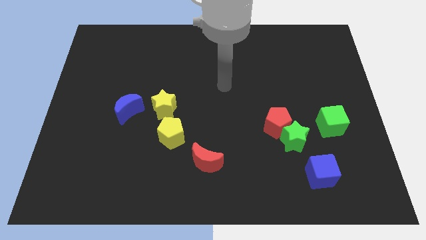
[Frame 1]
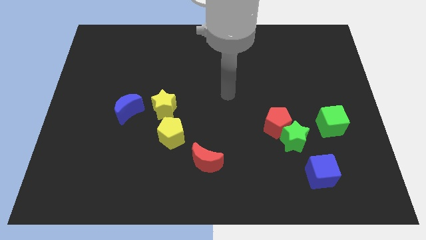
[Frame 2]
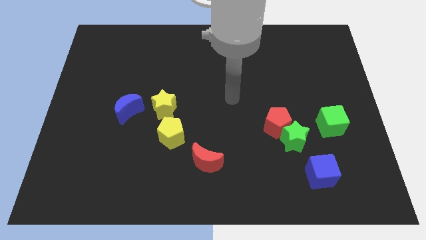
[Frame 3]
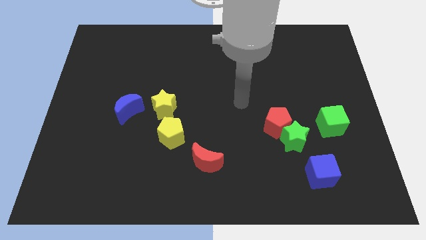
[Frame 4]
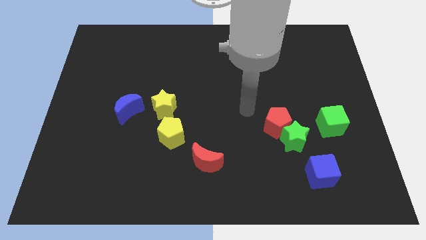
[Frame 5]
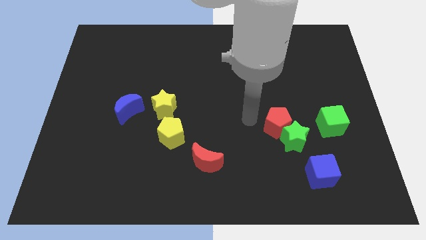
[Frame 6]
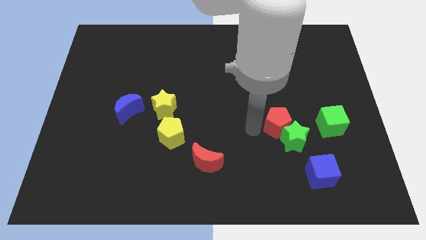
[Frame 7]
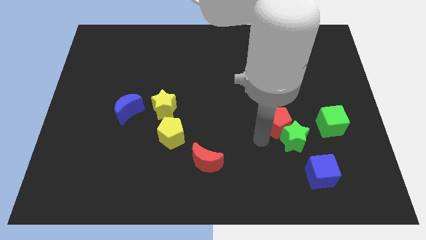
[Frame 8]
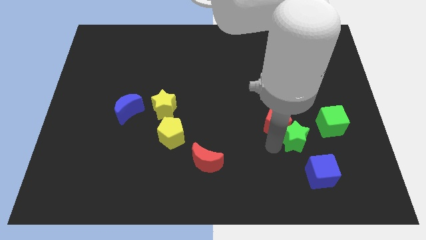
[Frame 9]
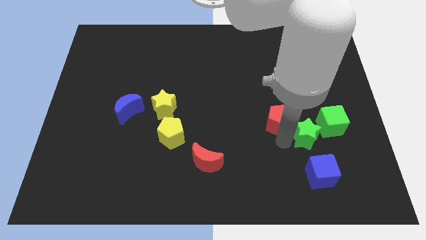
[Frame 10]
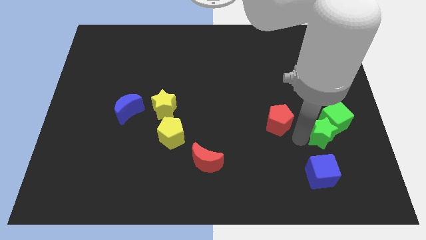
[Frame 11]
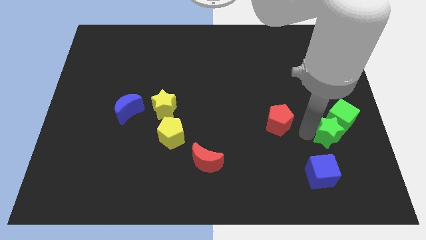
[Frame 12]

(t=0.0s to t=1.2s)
pull the red pentagon apart from the green star

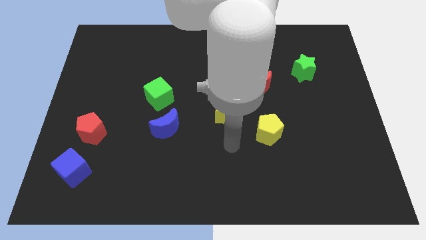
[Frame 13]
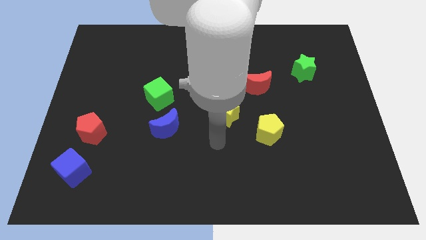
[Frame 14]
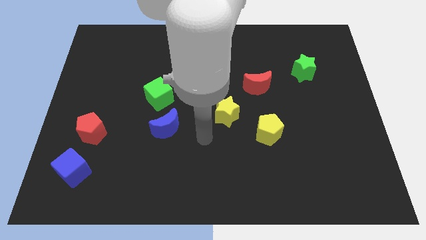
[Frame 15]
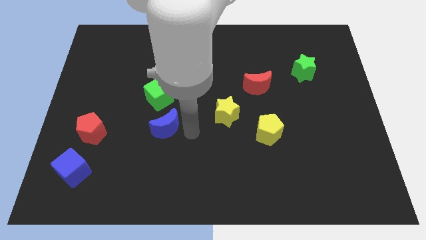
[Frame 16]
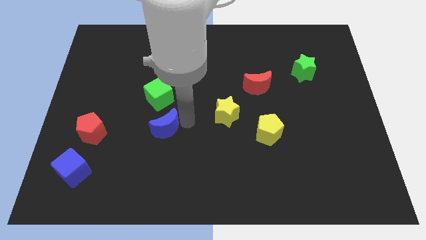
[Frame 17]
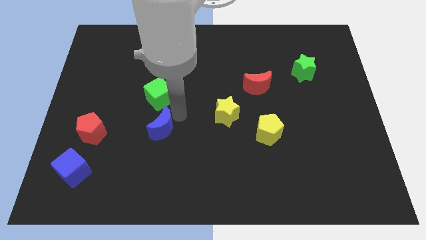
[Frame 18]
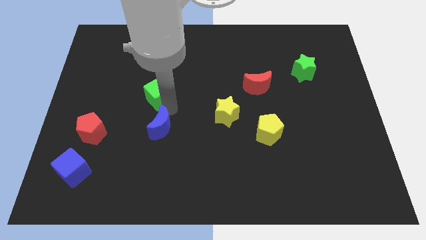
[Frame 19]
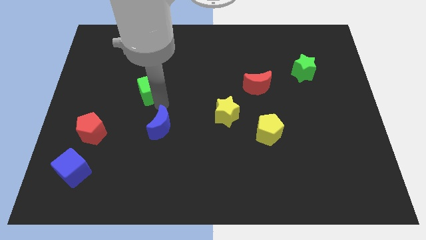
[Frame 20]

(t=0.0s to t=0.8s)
separate the blue moon from the green cube

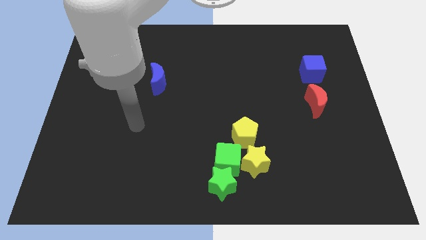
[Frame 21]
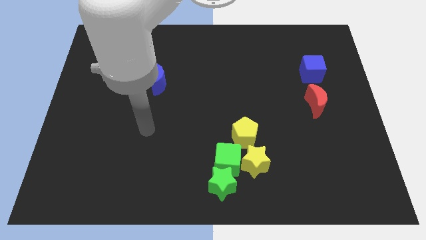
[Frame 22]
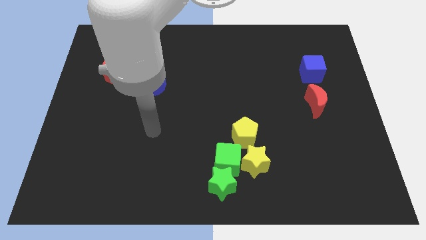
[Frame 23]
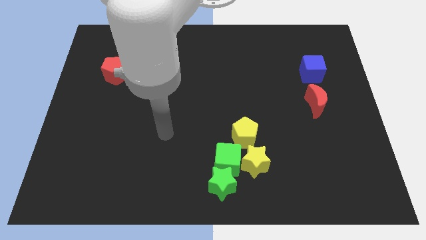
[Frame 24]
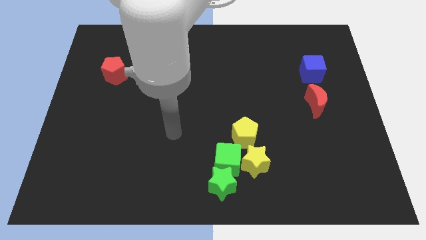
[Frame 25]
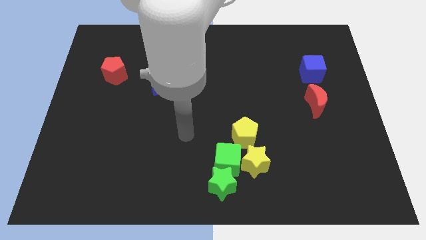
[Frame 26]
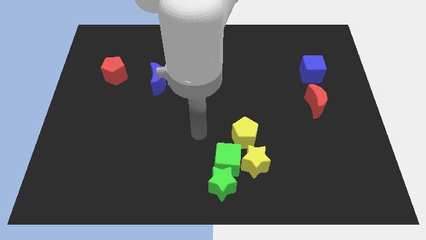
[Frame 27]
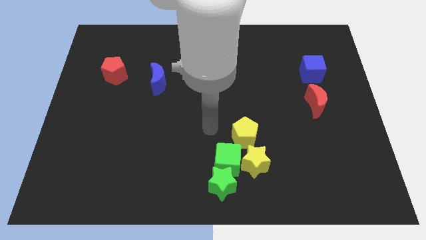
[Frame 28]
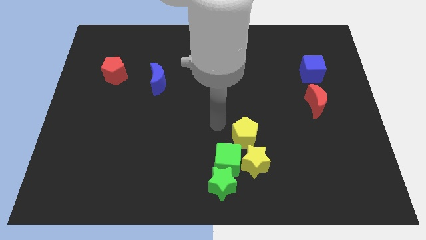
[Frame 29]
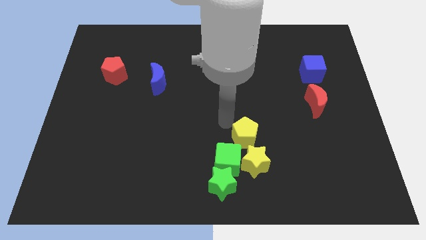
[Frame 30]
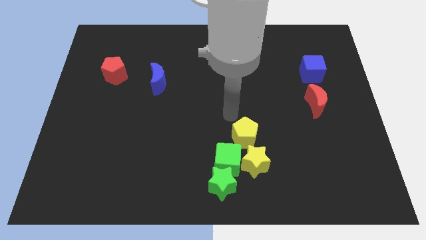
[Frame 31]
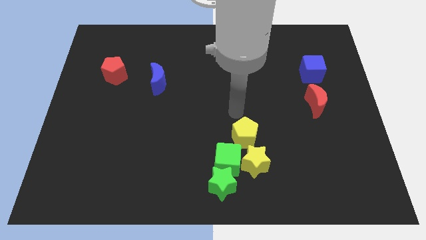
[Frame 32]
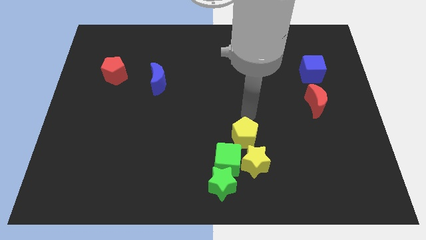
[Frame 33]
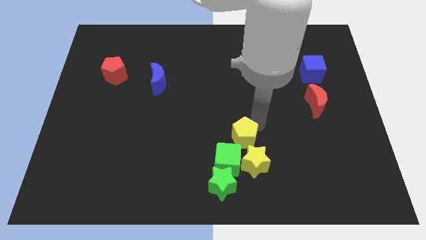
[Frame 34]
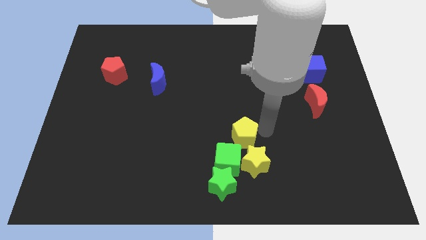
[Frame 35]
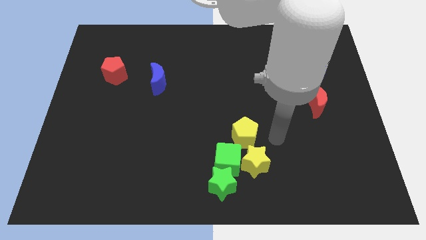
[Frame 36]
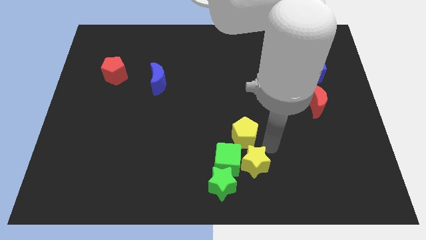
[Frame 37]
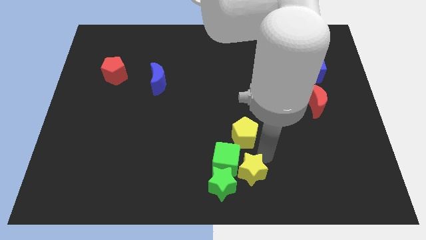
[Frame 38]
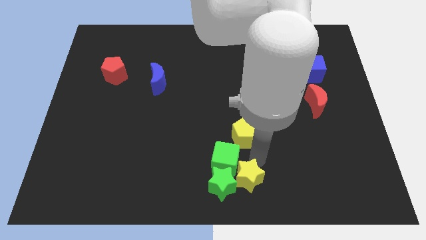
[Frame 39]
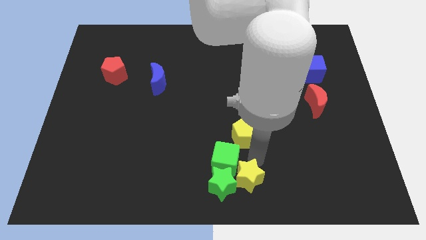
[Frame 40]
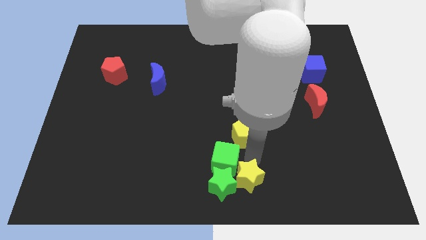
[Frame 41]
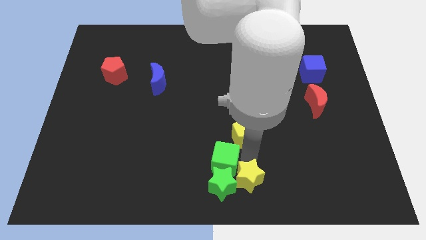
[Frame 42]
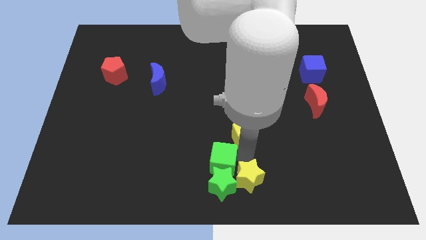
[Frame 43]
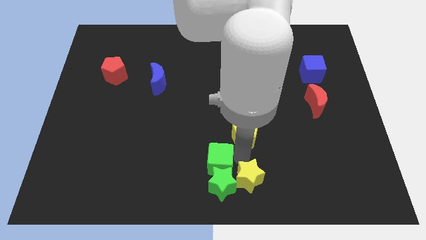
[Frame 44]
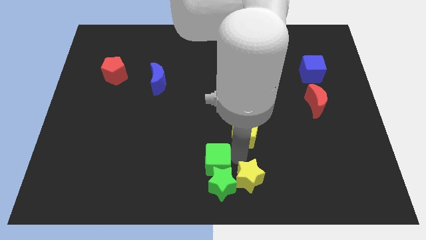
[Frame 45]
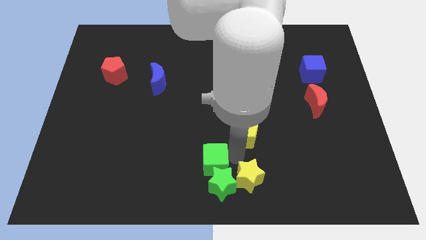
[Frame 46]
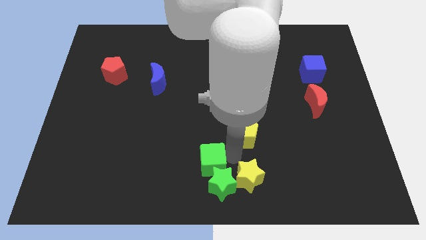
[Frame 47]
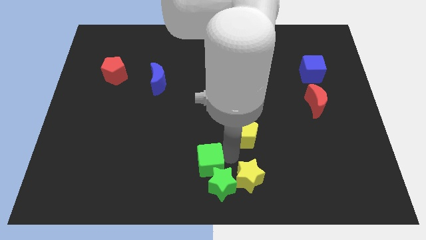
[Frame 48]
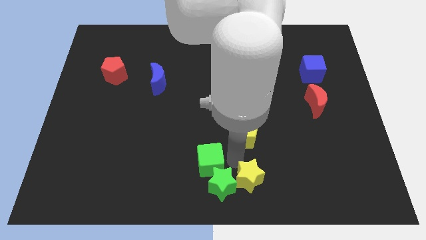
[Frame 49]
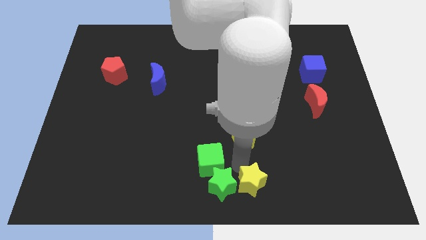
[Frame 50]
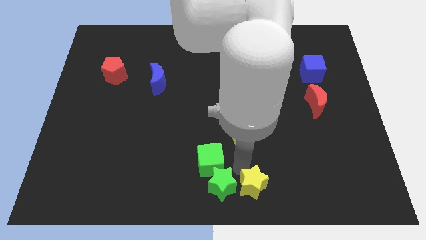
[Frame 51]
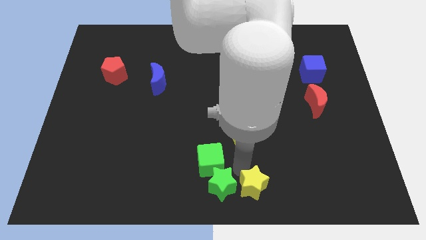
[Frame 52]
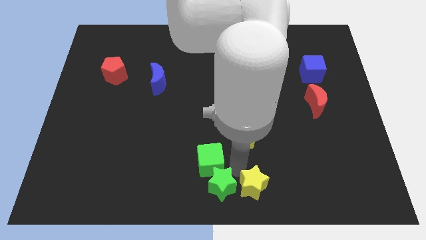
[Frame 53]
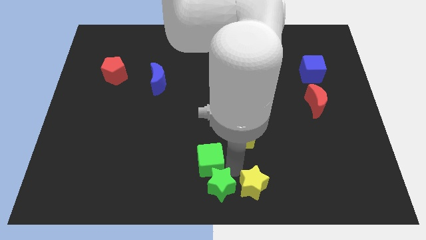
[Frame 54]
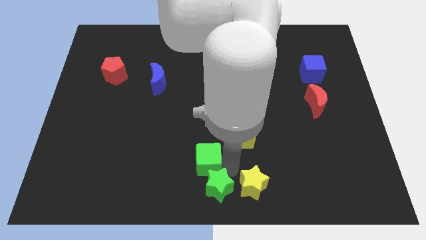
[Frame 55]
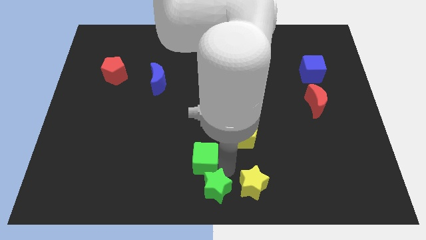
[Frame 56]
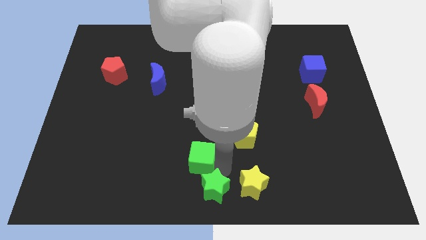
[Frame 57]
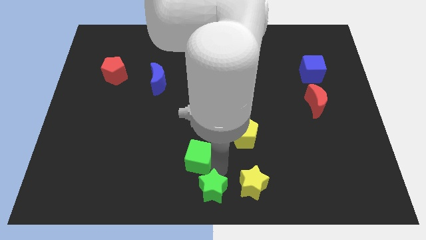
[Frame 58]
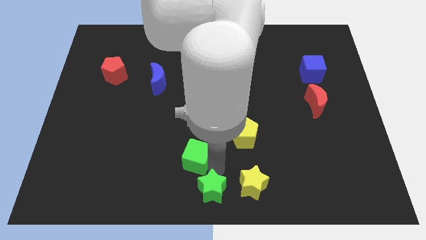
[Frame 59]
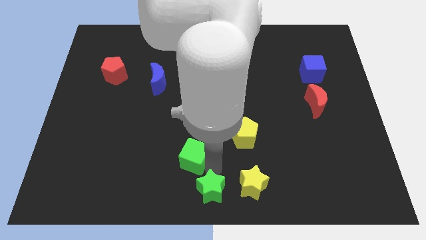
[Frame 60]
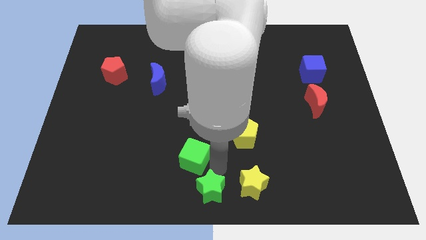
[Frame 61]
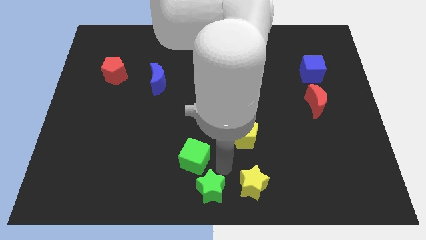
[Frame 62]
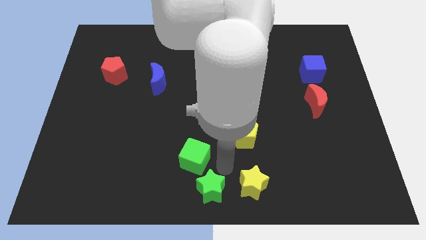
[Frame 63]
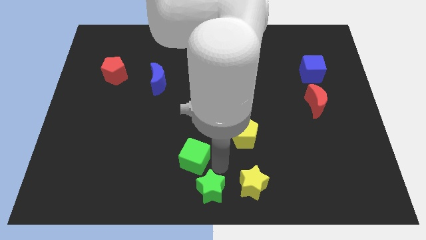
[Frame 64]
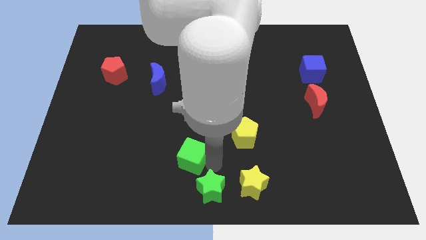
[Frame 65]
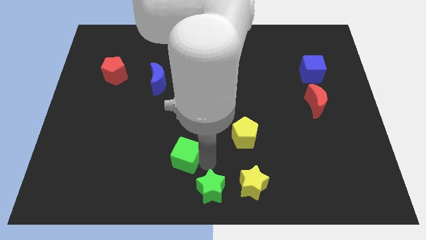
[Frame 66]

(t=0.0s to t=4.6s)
pull the green cube apart from the green star, yellow star, and yellow pentagon

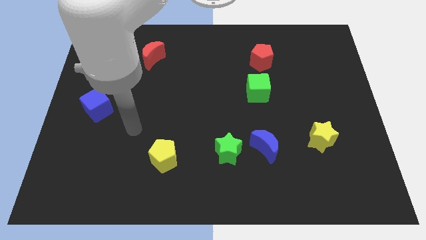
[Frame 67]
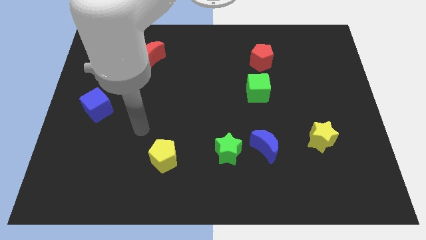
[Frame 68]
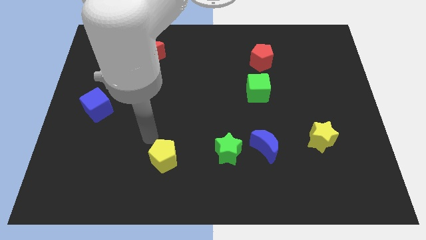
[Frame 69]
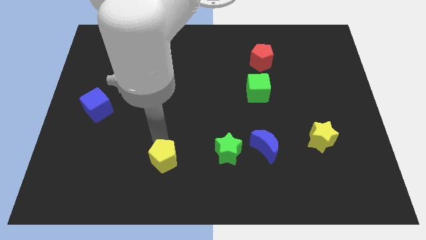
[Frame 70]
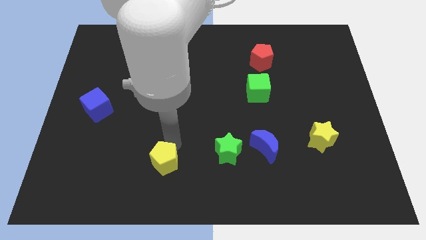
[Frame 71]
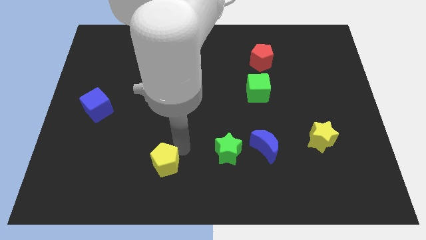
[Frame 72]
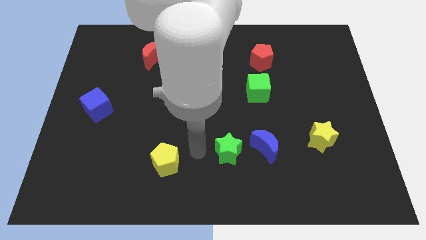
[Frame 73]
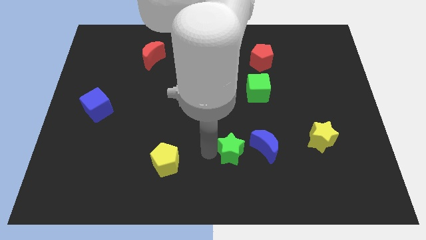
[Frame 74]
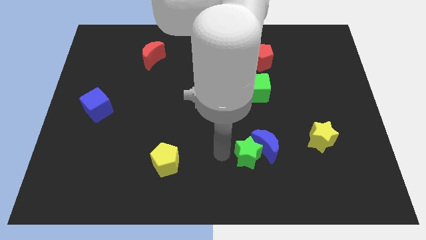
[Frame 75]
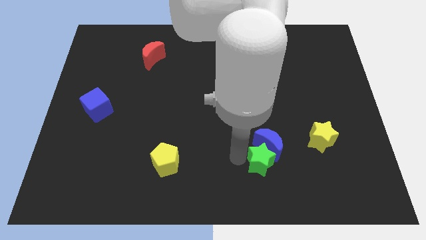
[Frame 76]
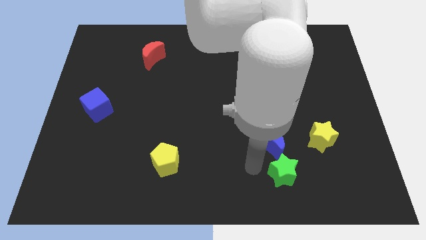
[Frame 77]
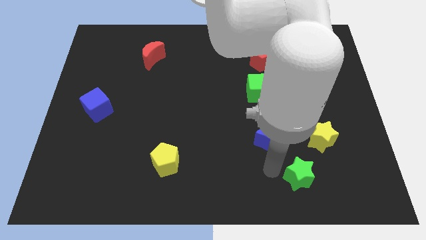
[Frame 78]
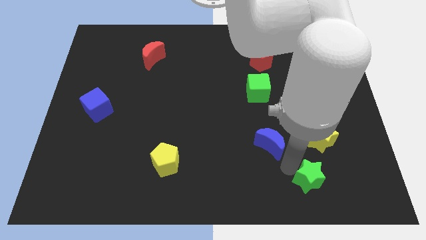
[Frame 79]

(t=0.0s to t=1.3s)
pull the blue moon apart from the green star

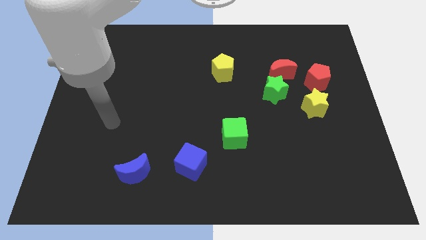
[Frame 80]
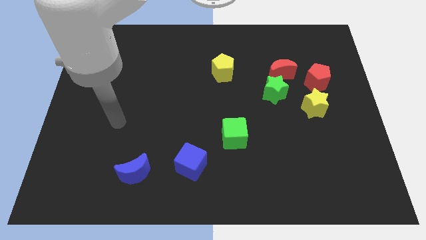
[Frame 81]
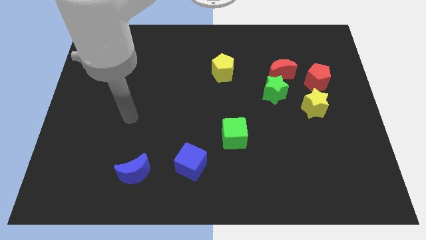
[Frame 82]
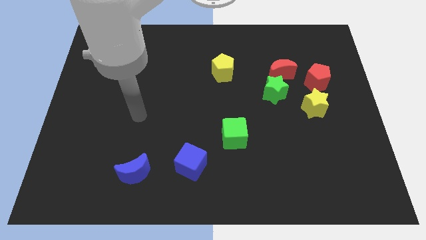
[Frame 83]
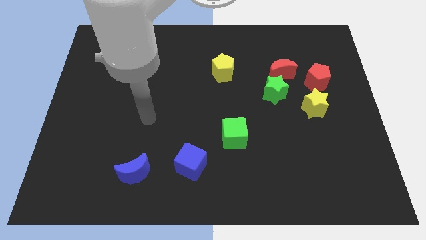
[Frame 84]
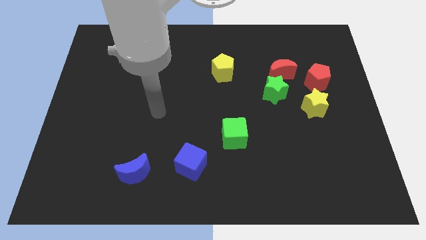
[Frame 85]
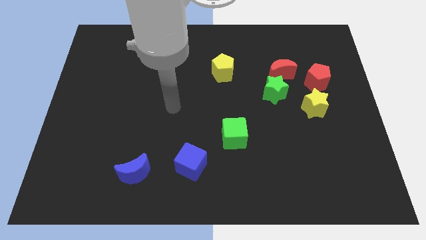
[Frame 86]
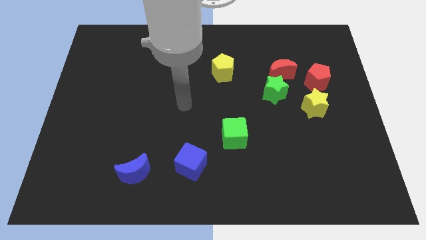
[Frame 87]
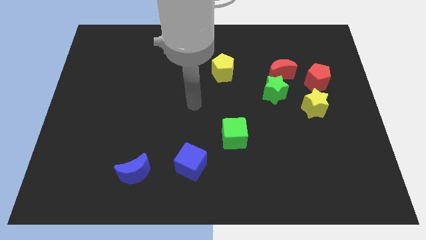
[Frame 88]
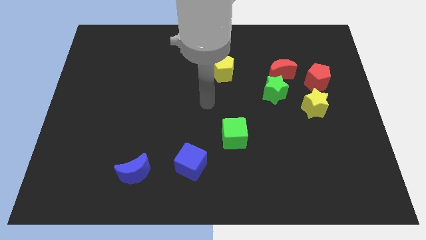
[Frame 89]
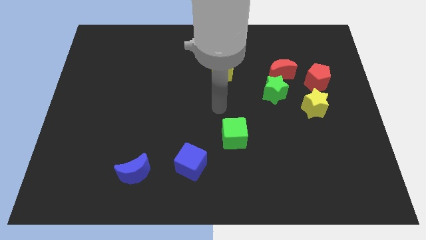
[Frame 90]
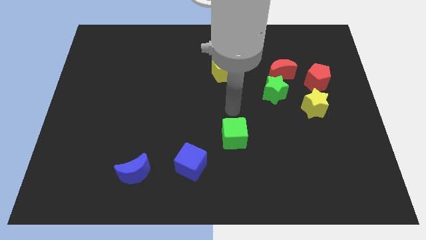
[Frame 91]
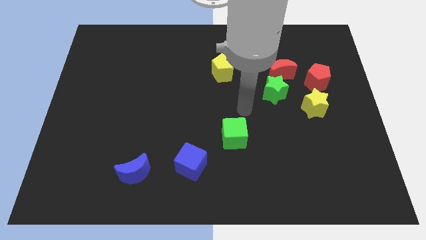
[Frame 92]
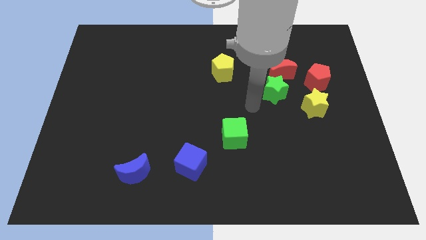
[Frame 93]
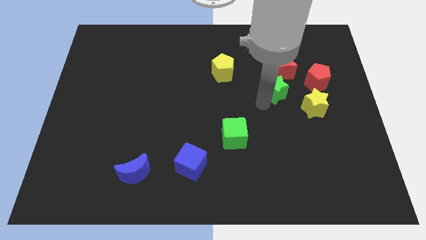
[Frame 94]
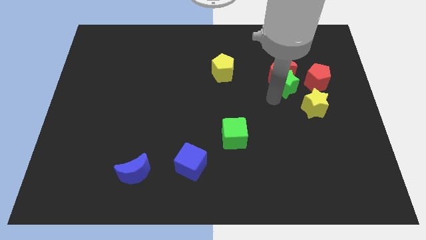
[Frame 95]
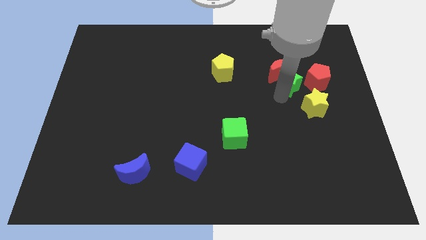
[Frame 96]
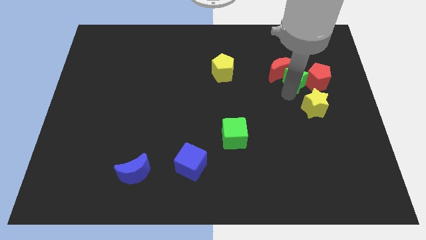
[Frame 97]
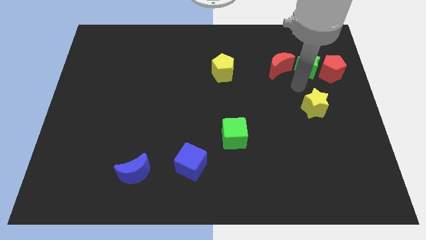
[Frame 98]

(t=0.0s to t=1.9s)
move the red moon away from the green star and red pentagon
